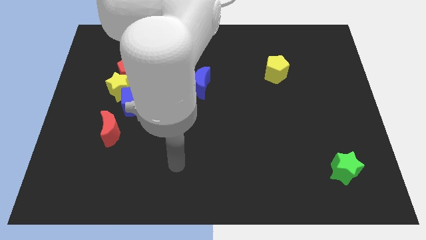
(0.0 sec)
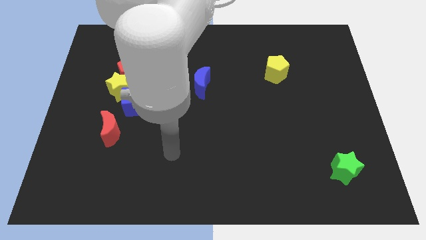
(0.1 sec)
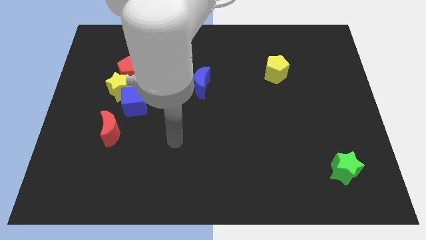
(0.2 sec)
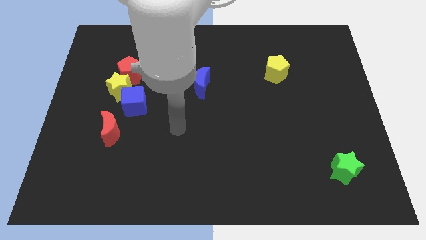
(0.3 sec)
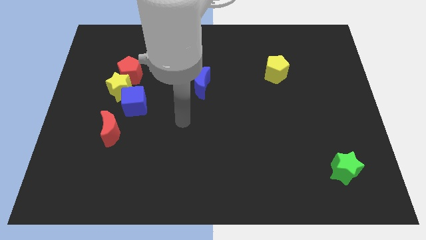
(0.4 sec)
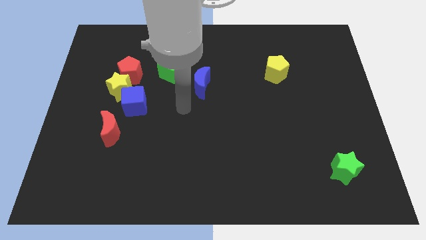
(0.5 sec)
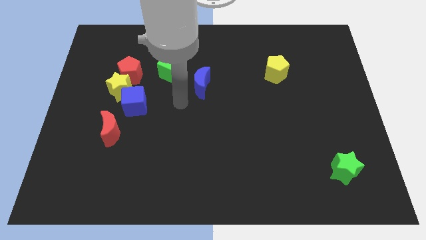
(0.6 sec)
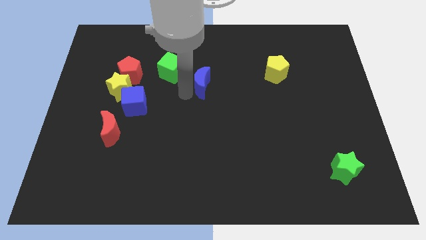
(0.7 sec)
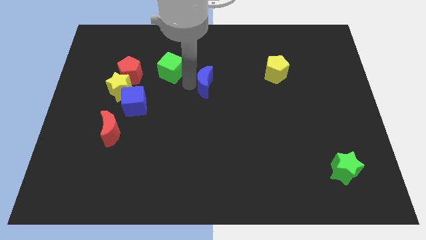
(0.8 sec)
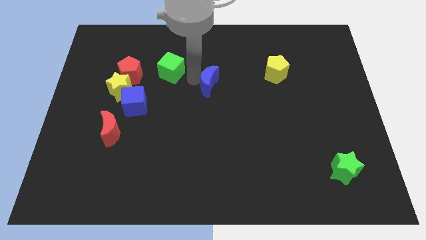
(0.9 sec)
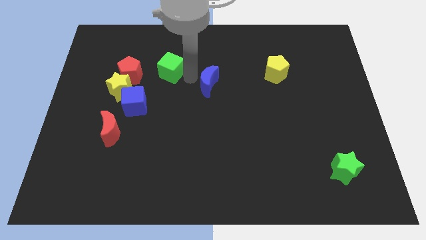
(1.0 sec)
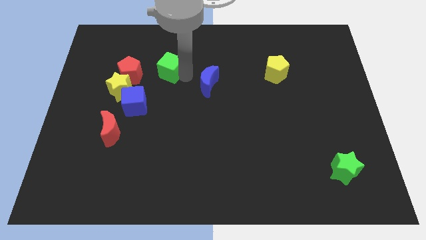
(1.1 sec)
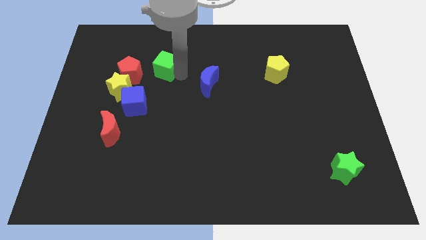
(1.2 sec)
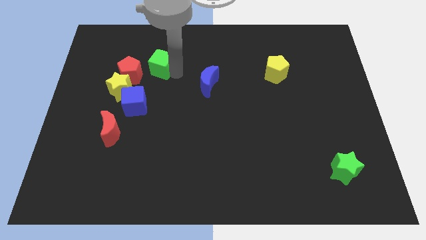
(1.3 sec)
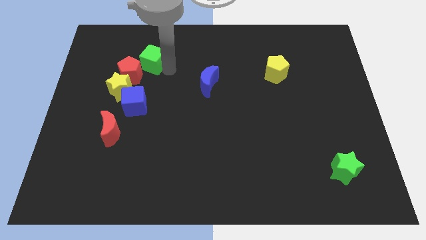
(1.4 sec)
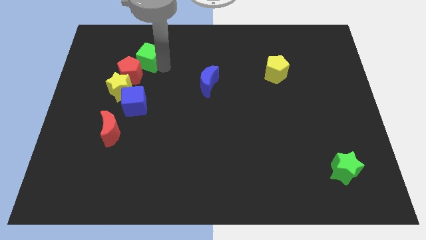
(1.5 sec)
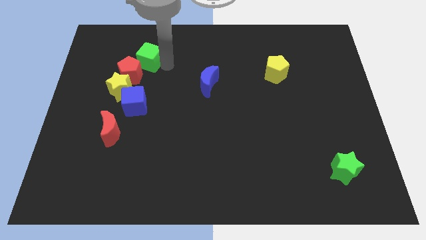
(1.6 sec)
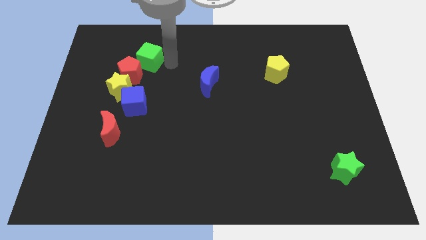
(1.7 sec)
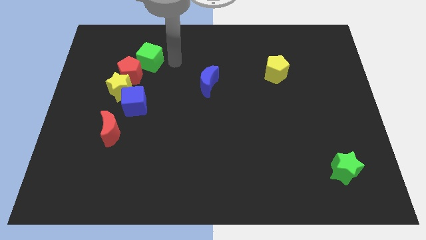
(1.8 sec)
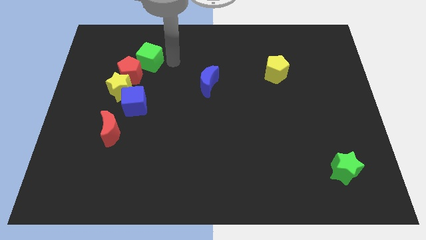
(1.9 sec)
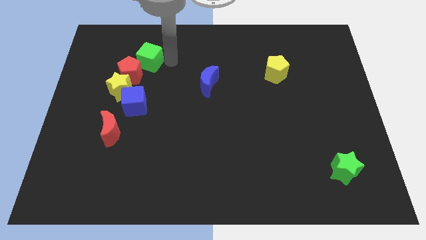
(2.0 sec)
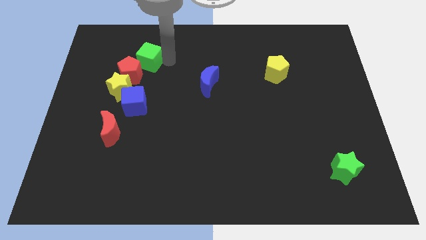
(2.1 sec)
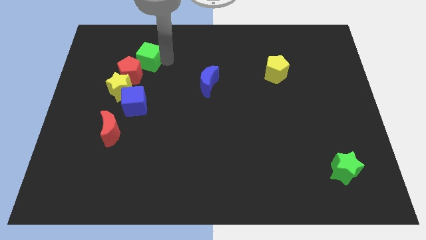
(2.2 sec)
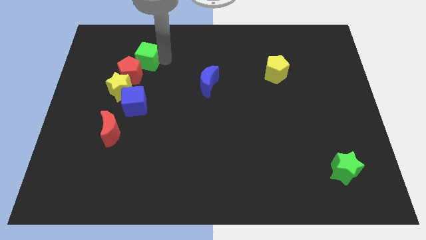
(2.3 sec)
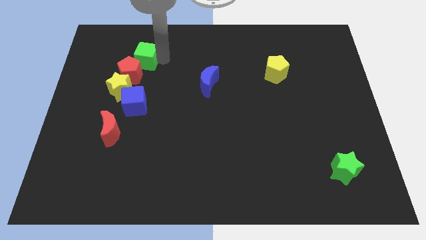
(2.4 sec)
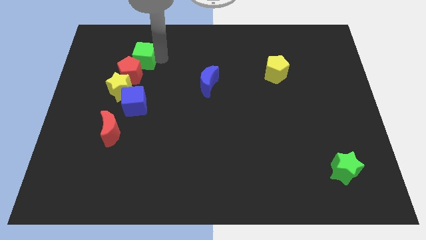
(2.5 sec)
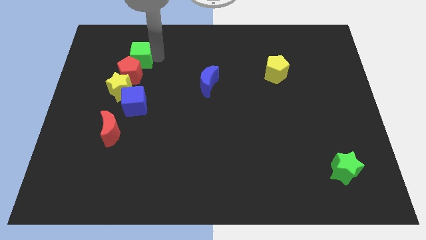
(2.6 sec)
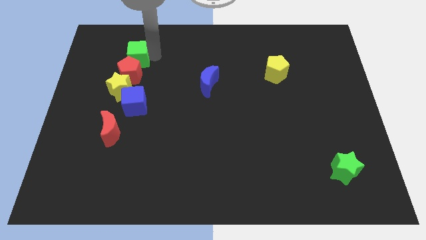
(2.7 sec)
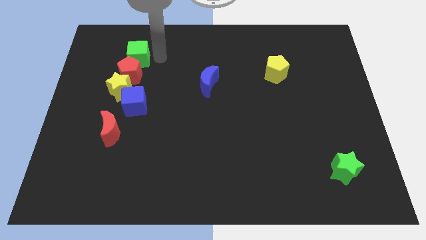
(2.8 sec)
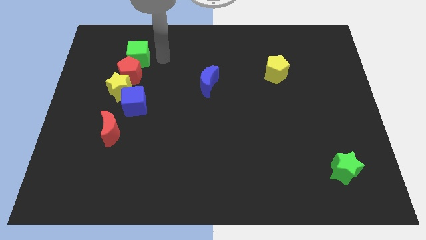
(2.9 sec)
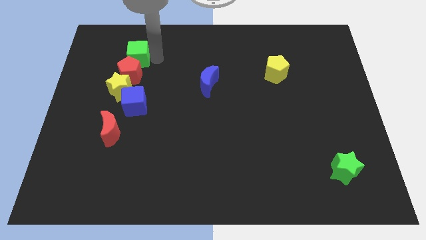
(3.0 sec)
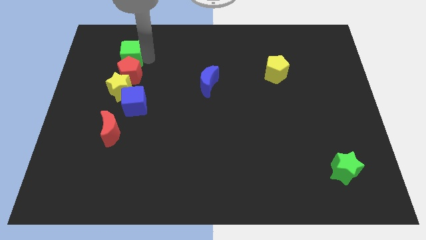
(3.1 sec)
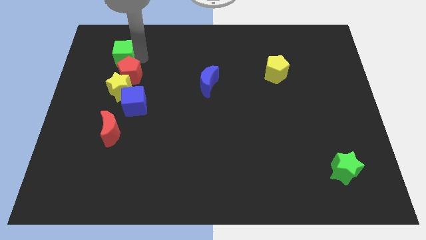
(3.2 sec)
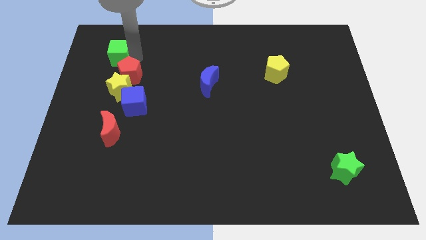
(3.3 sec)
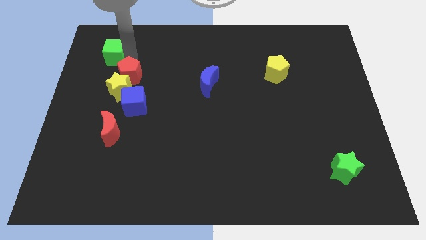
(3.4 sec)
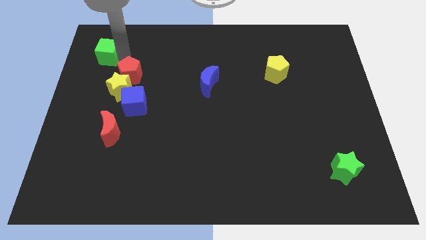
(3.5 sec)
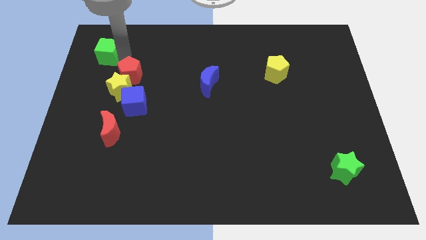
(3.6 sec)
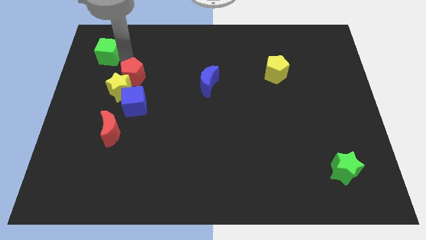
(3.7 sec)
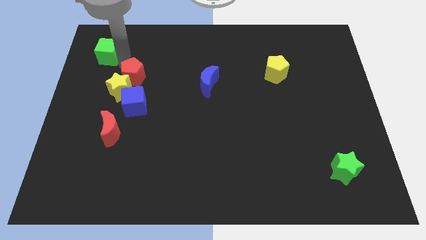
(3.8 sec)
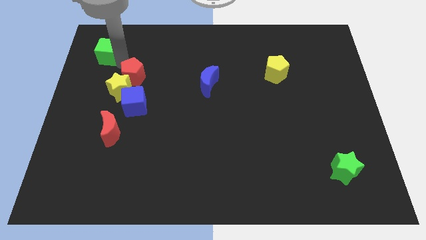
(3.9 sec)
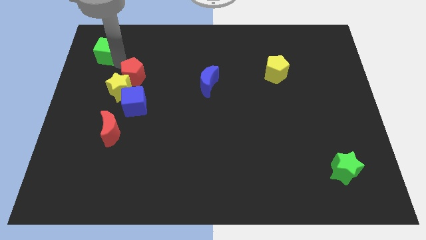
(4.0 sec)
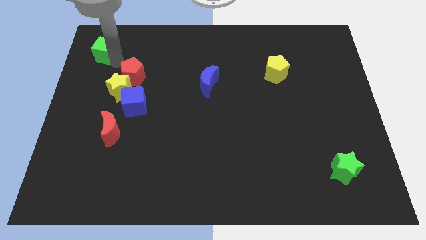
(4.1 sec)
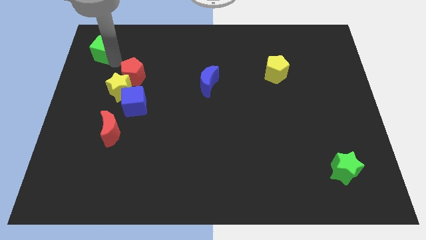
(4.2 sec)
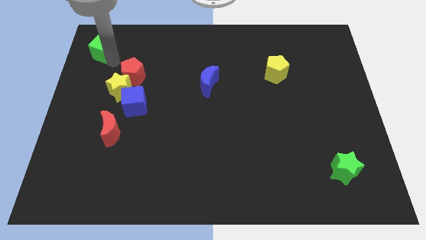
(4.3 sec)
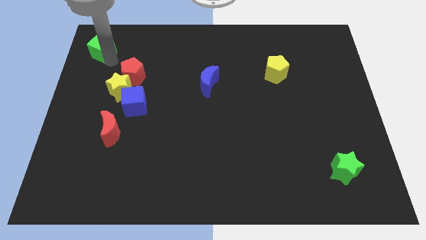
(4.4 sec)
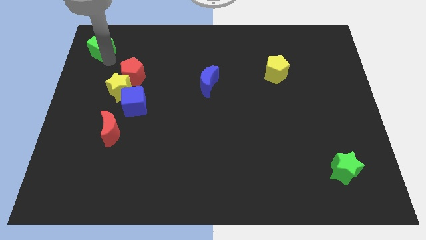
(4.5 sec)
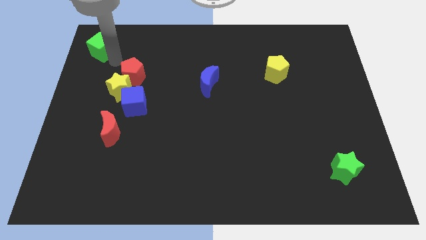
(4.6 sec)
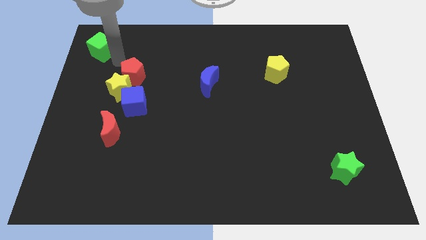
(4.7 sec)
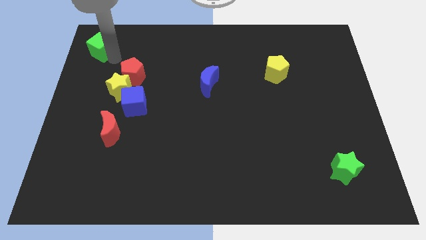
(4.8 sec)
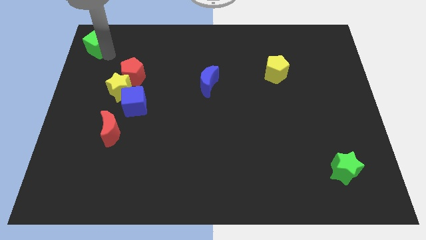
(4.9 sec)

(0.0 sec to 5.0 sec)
push the green cube to the top left

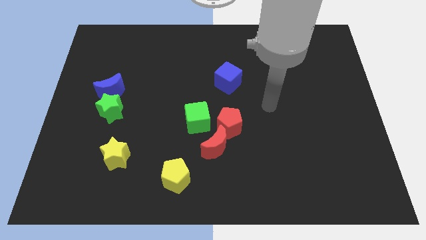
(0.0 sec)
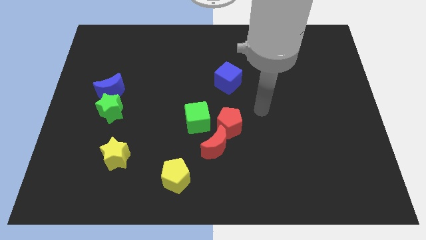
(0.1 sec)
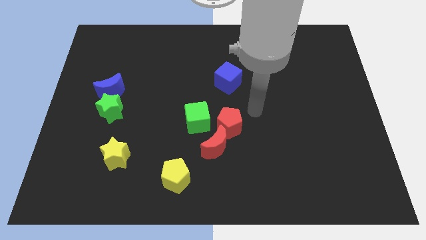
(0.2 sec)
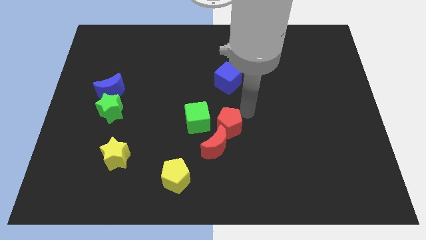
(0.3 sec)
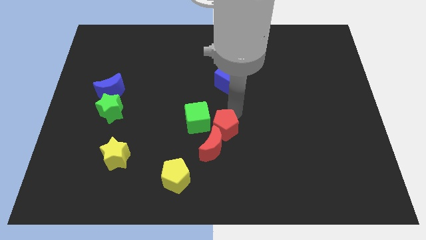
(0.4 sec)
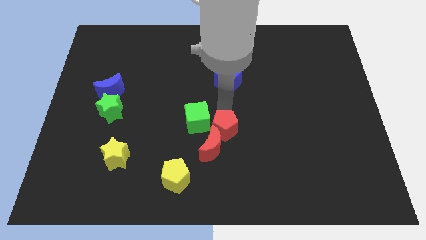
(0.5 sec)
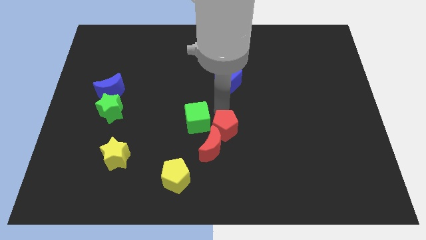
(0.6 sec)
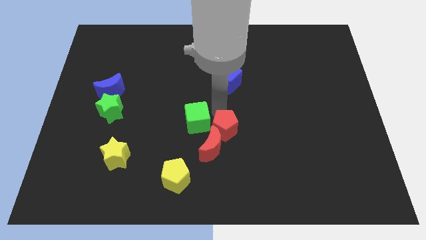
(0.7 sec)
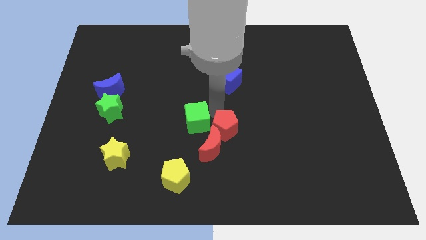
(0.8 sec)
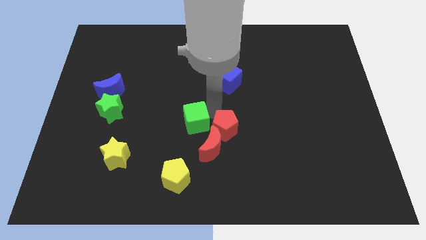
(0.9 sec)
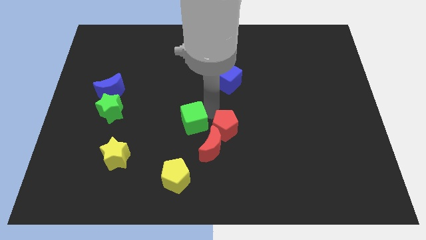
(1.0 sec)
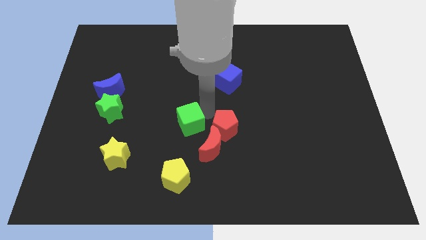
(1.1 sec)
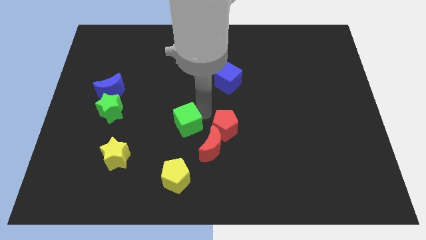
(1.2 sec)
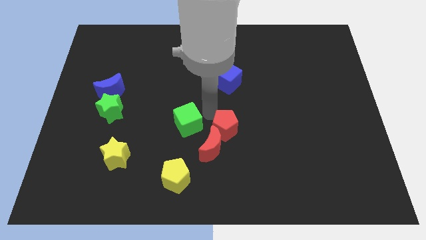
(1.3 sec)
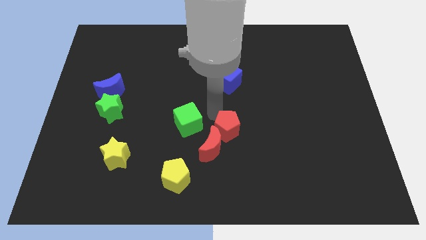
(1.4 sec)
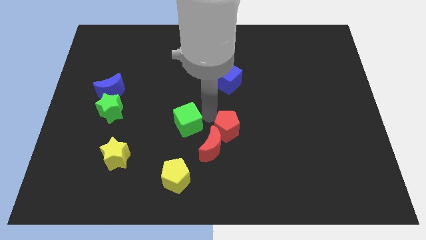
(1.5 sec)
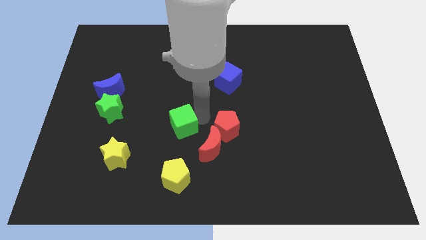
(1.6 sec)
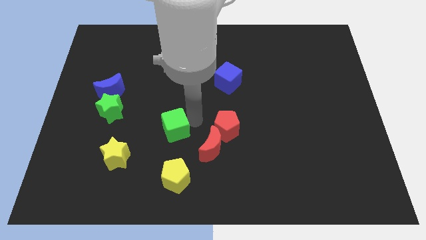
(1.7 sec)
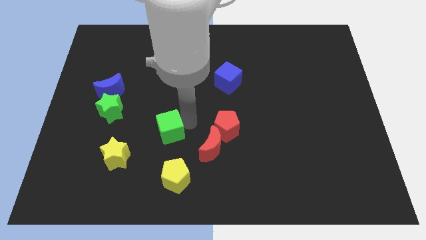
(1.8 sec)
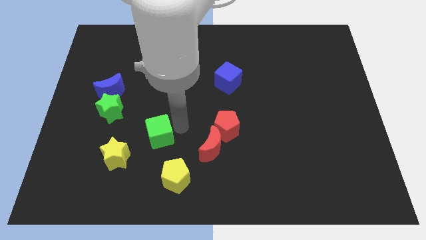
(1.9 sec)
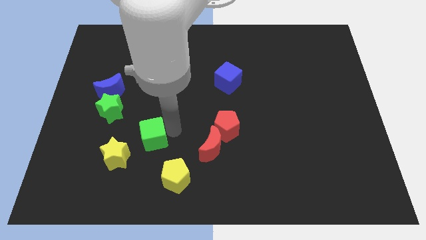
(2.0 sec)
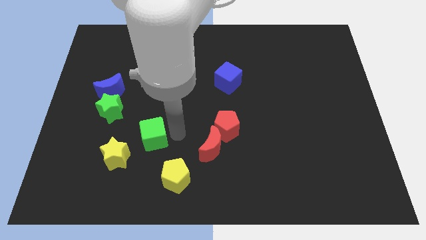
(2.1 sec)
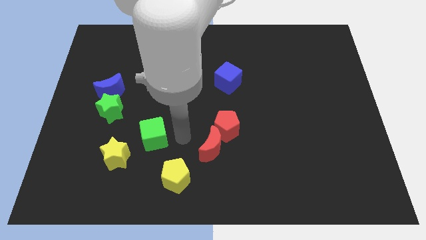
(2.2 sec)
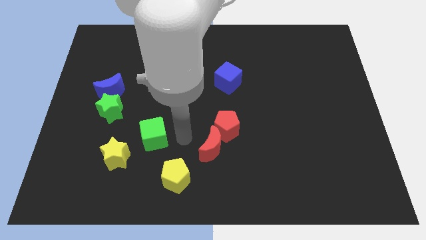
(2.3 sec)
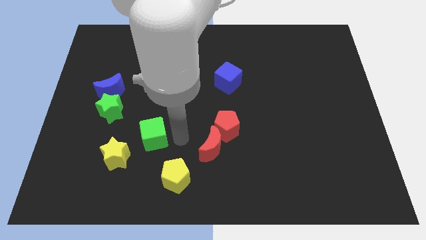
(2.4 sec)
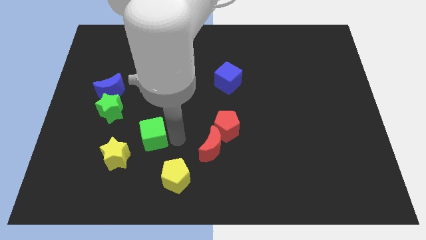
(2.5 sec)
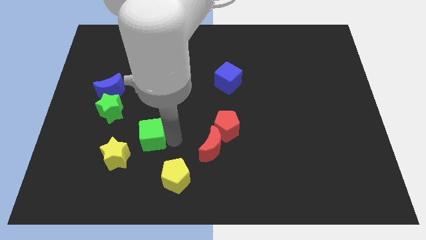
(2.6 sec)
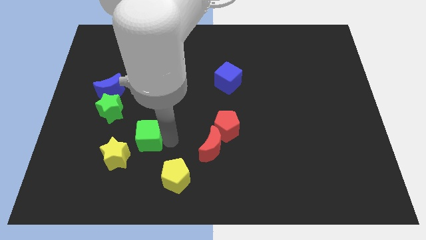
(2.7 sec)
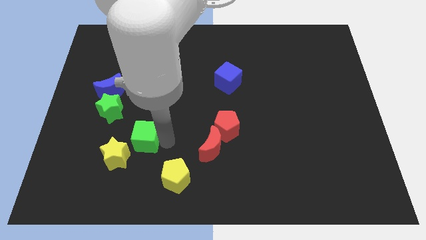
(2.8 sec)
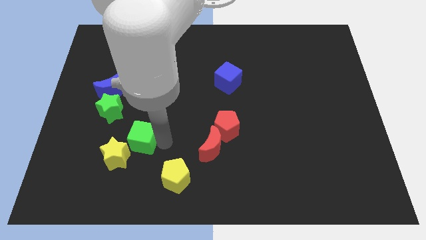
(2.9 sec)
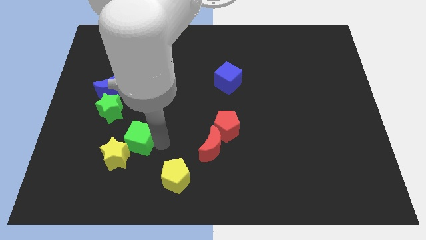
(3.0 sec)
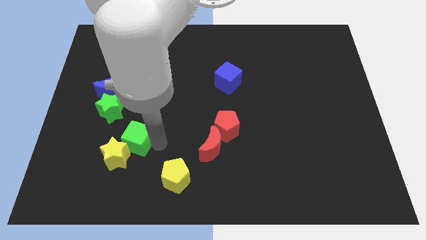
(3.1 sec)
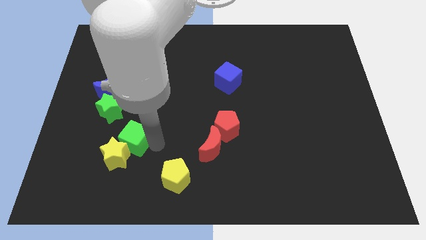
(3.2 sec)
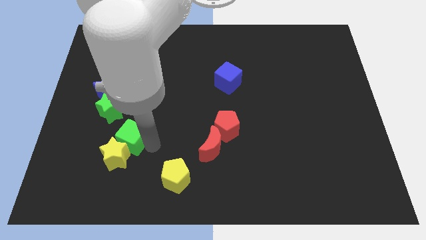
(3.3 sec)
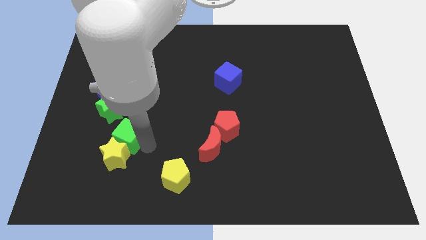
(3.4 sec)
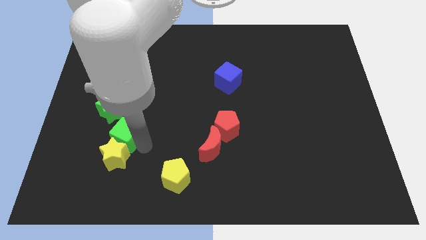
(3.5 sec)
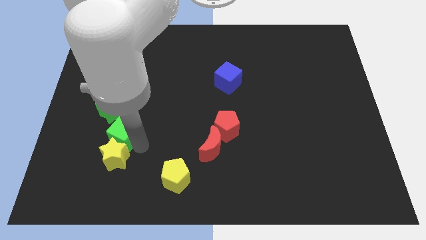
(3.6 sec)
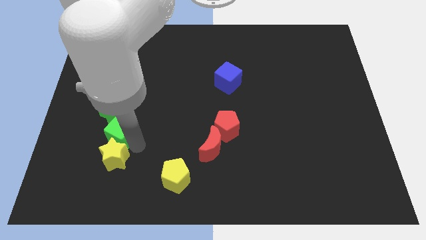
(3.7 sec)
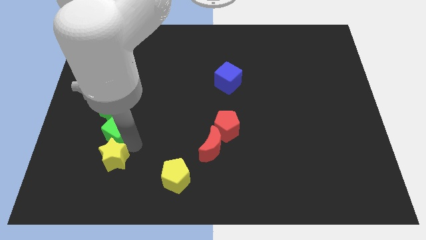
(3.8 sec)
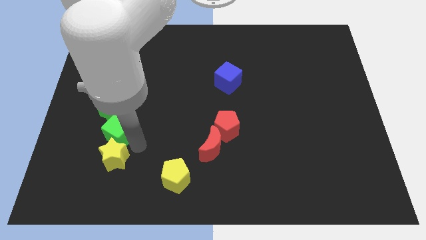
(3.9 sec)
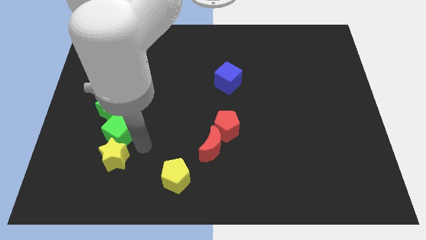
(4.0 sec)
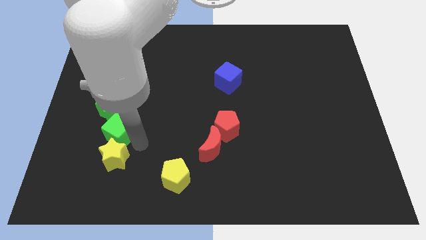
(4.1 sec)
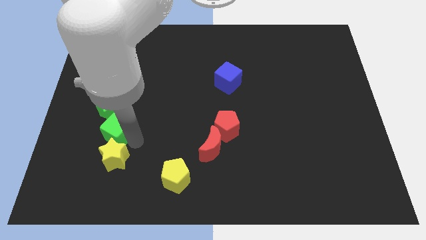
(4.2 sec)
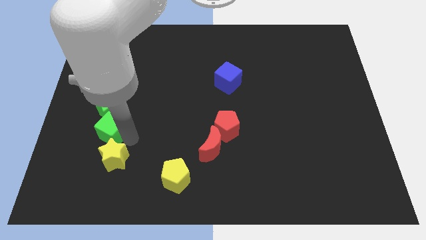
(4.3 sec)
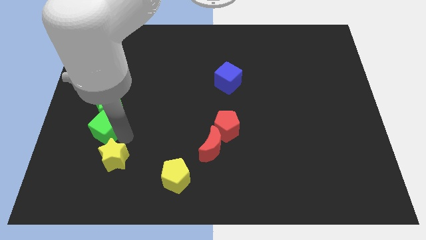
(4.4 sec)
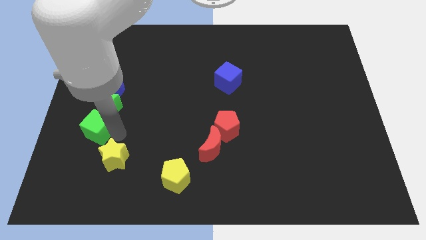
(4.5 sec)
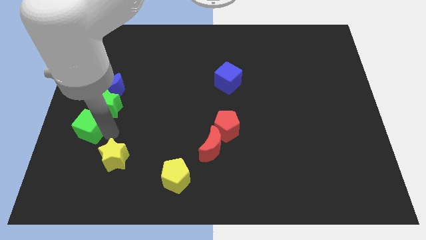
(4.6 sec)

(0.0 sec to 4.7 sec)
slide the green cube to the left side
